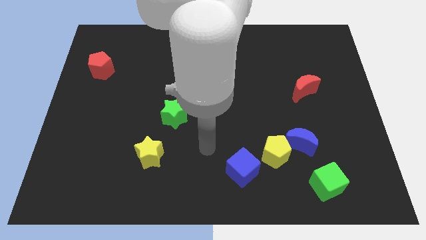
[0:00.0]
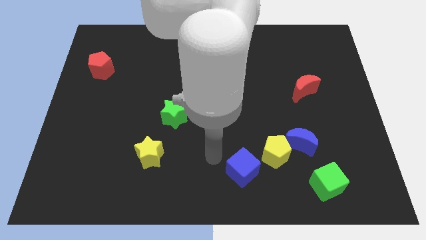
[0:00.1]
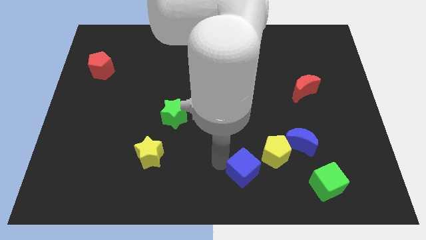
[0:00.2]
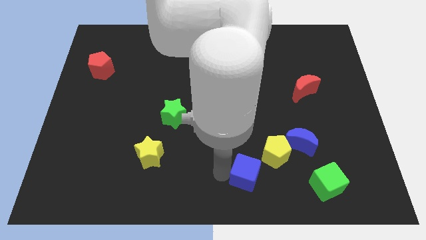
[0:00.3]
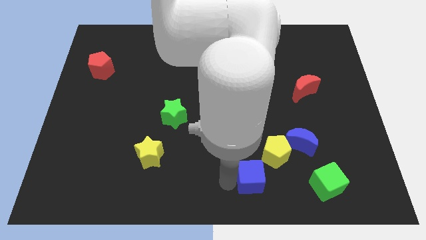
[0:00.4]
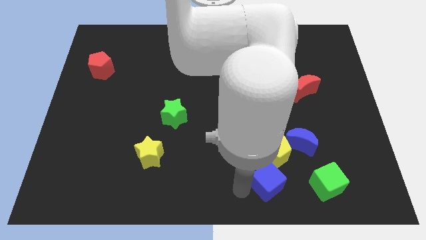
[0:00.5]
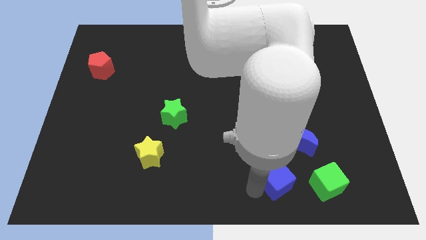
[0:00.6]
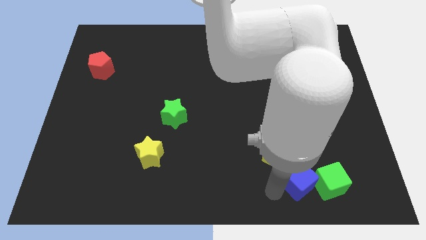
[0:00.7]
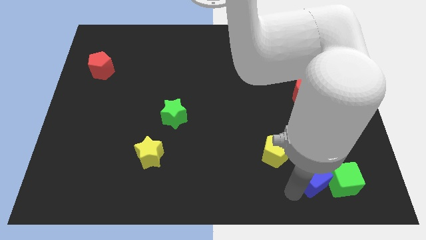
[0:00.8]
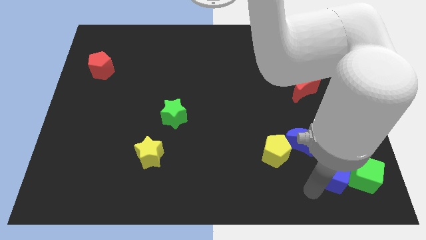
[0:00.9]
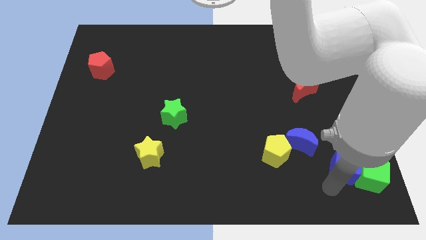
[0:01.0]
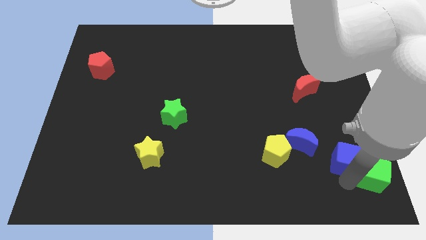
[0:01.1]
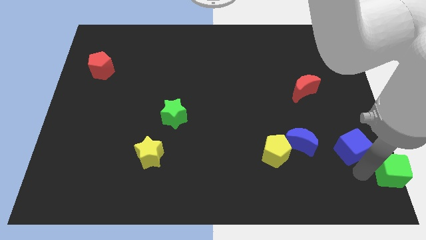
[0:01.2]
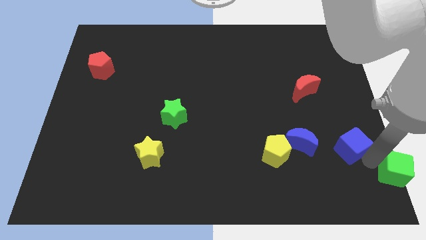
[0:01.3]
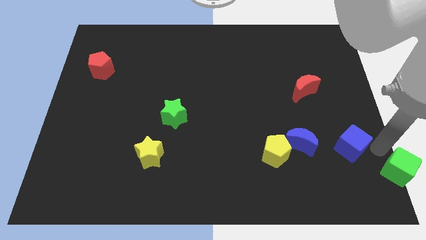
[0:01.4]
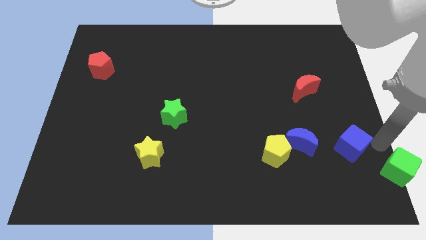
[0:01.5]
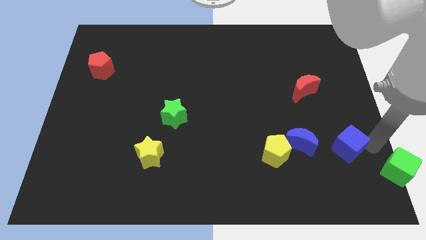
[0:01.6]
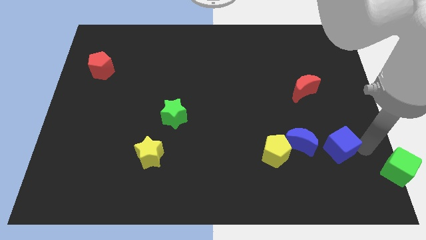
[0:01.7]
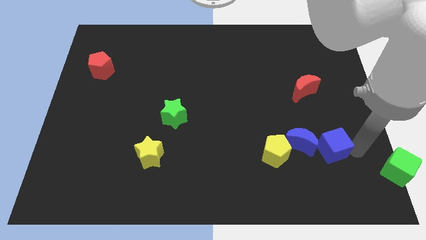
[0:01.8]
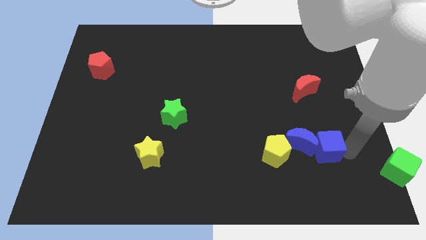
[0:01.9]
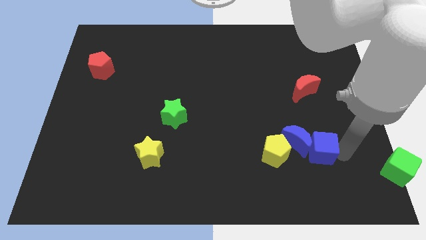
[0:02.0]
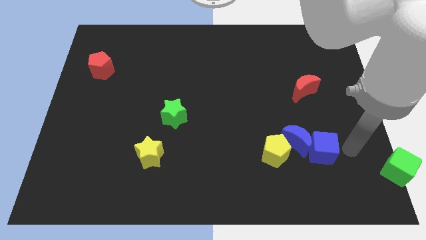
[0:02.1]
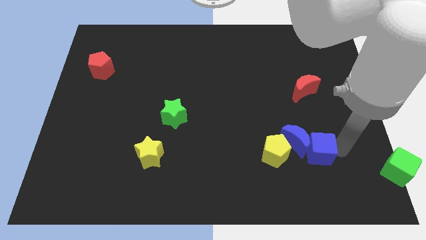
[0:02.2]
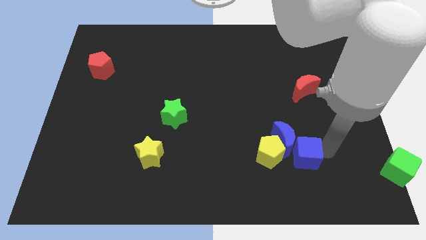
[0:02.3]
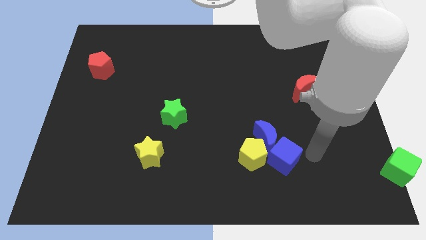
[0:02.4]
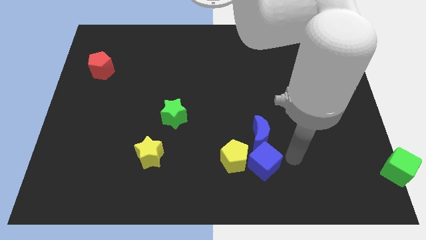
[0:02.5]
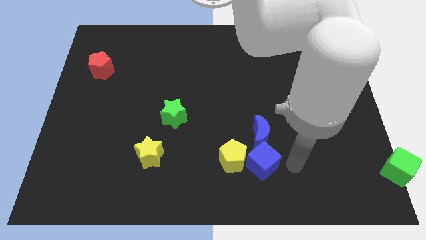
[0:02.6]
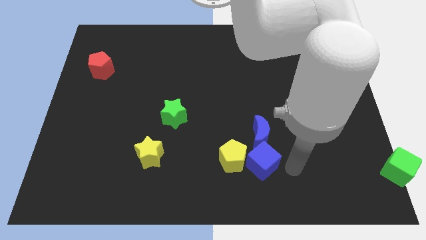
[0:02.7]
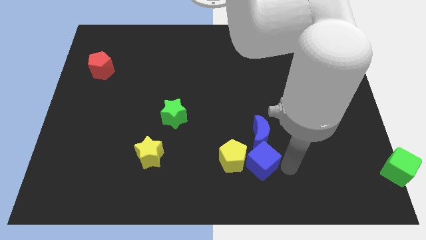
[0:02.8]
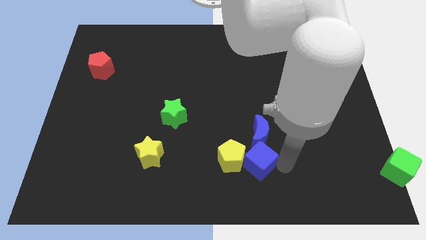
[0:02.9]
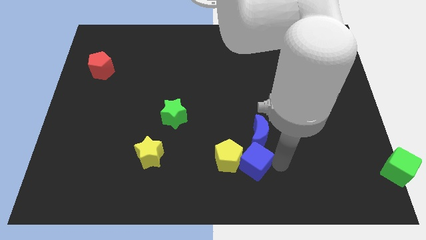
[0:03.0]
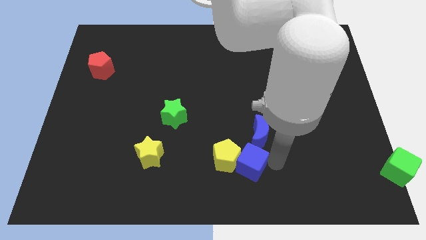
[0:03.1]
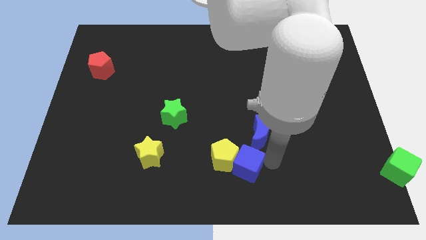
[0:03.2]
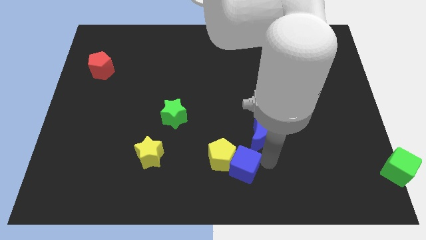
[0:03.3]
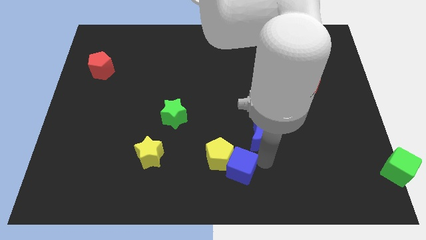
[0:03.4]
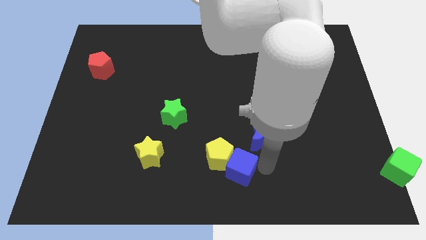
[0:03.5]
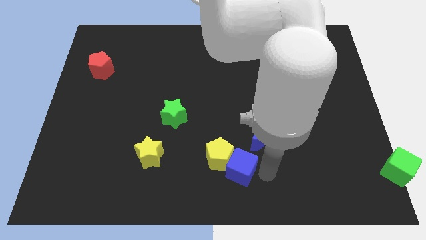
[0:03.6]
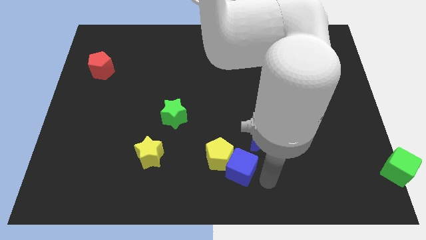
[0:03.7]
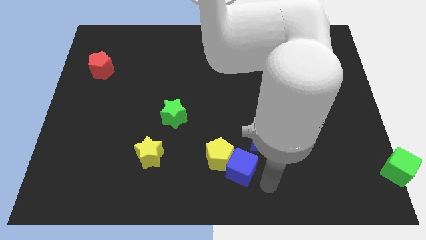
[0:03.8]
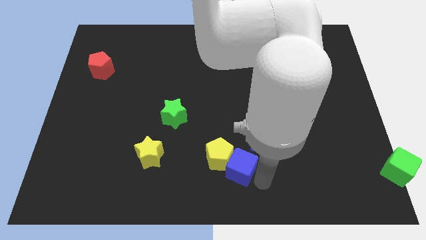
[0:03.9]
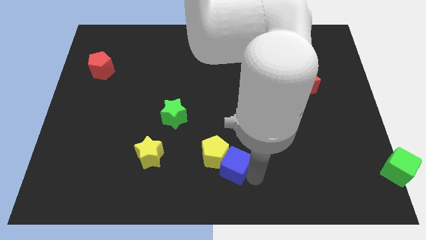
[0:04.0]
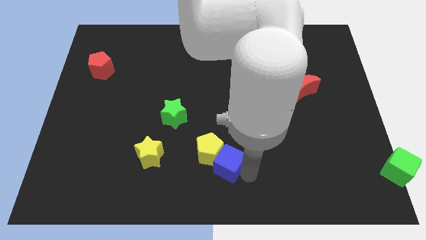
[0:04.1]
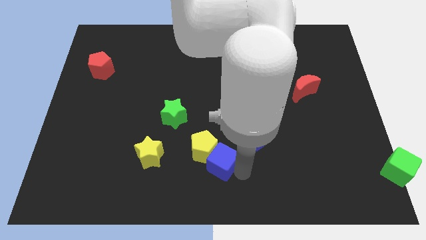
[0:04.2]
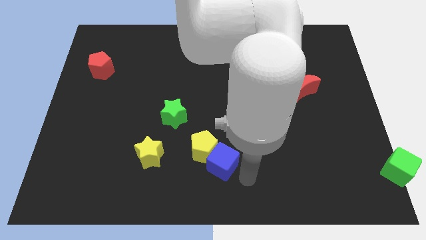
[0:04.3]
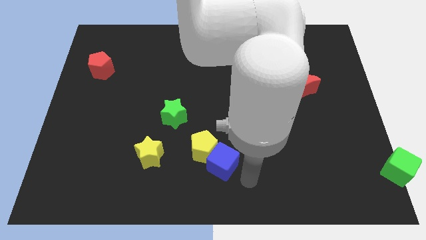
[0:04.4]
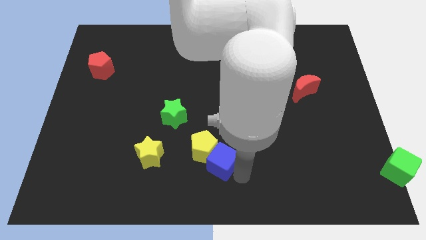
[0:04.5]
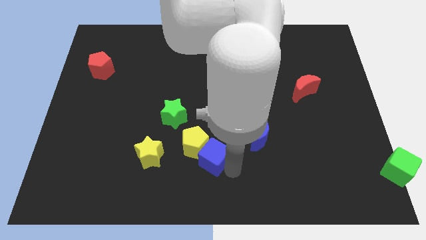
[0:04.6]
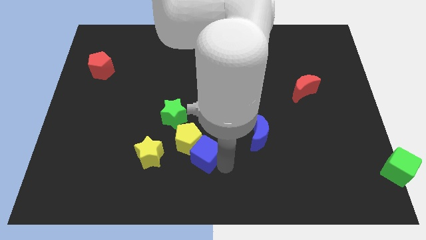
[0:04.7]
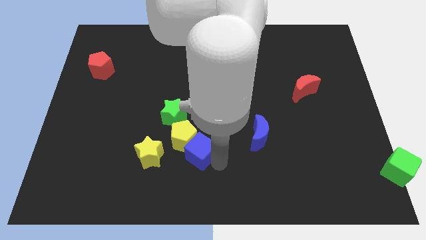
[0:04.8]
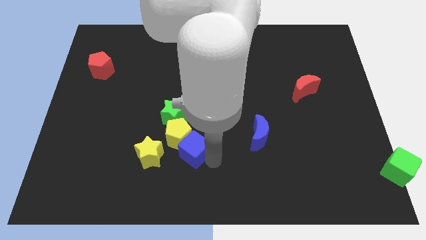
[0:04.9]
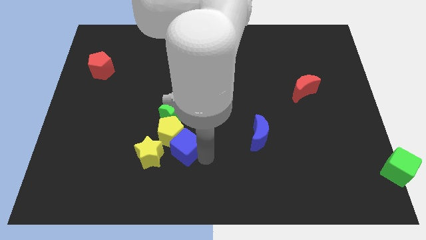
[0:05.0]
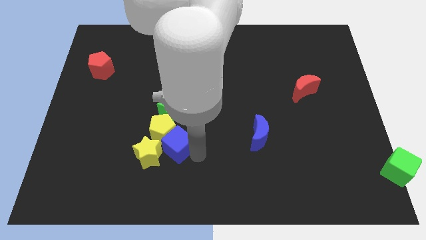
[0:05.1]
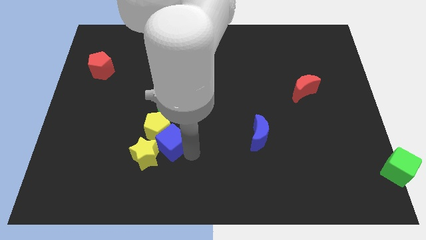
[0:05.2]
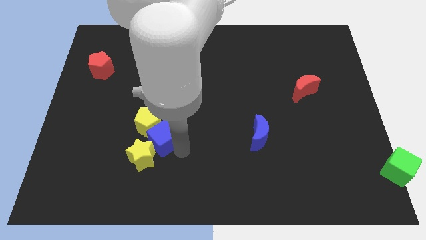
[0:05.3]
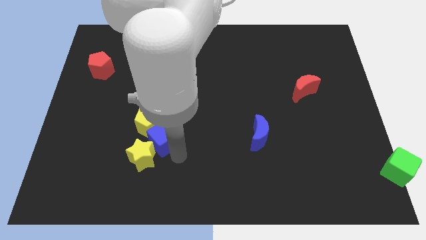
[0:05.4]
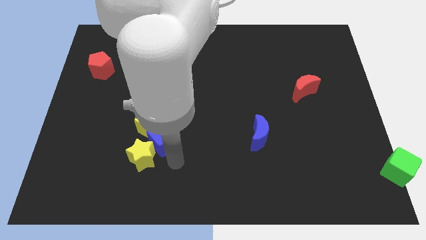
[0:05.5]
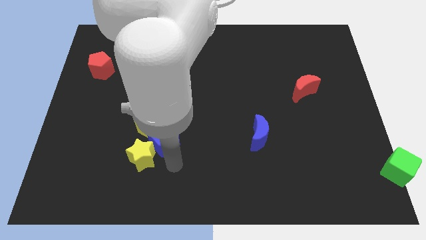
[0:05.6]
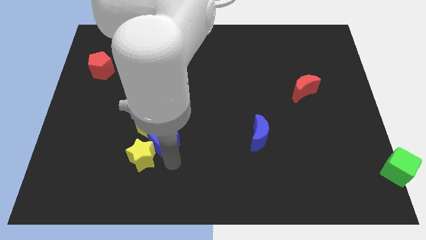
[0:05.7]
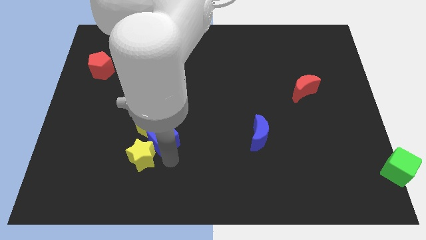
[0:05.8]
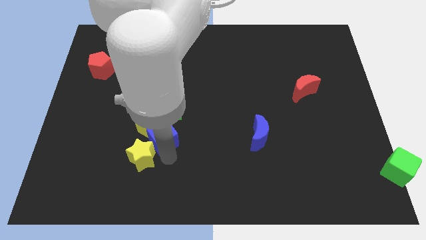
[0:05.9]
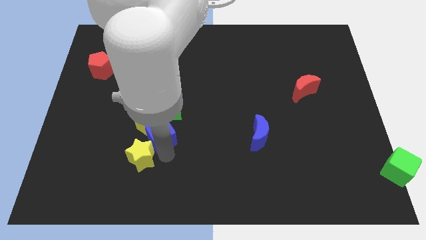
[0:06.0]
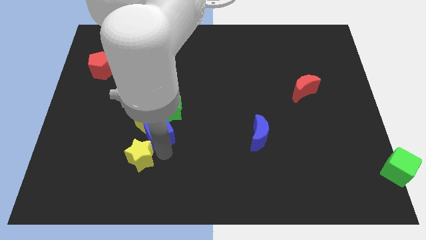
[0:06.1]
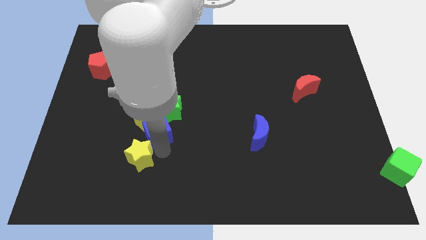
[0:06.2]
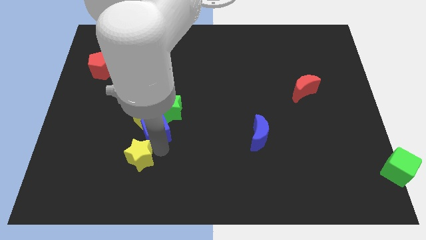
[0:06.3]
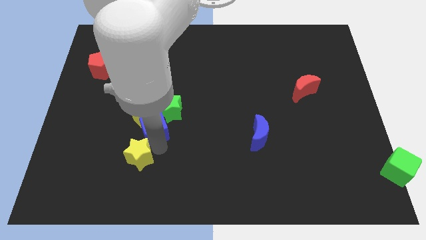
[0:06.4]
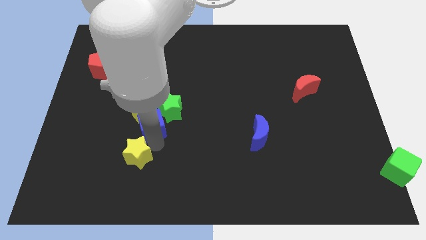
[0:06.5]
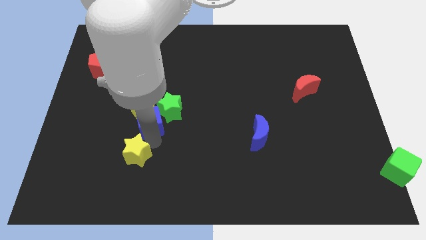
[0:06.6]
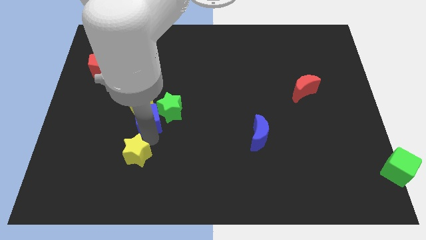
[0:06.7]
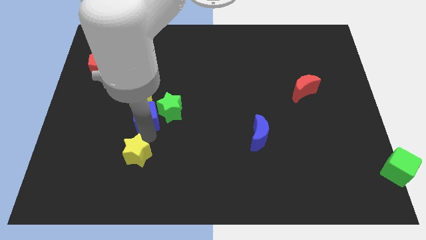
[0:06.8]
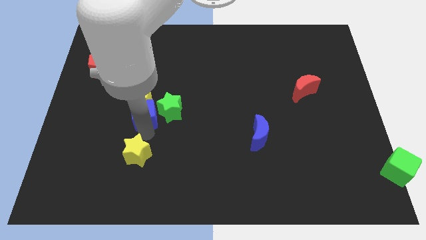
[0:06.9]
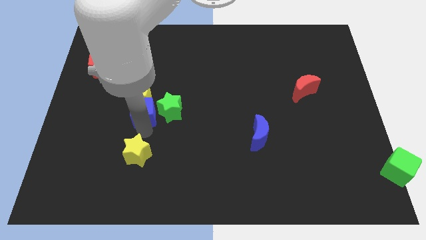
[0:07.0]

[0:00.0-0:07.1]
slide the blue cube to the top left of the green star

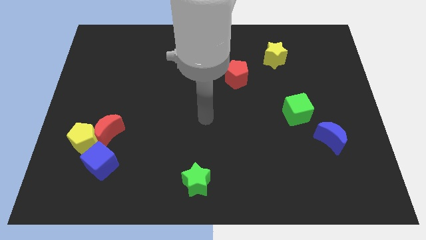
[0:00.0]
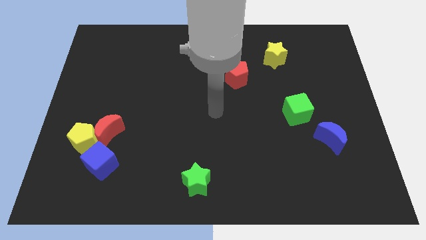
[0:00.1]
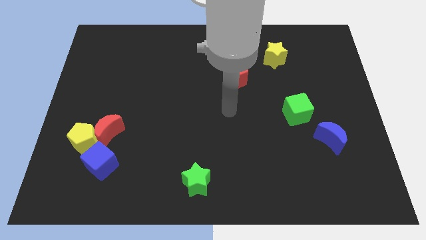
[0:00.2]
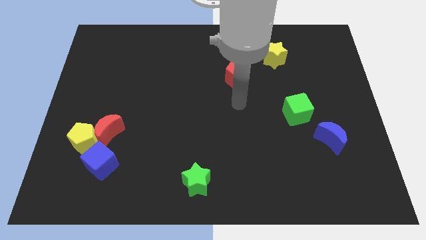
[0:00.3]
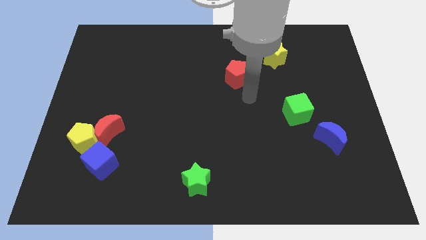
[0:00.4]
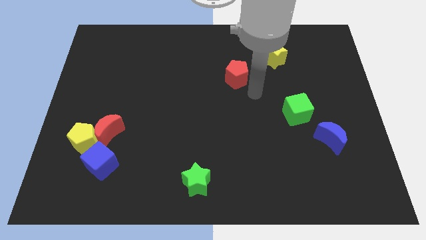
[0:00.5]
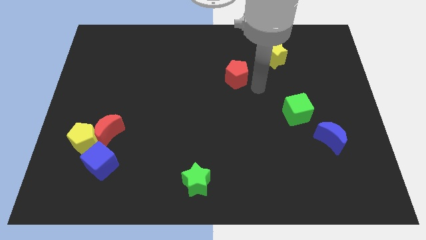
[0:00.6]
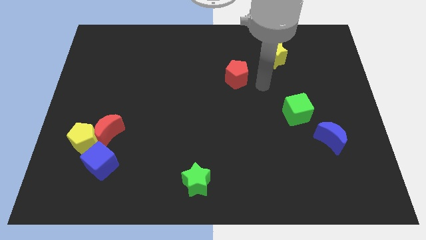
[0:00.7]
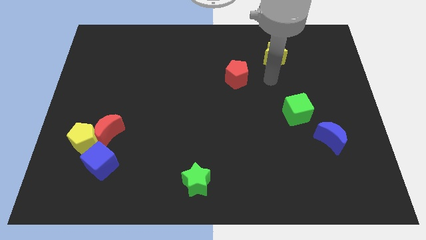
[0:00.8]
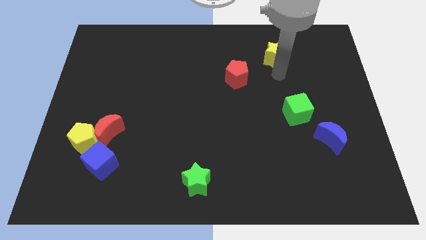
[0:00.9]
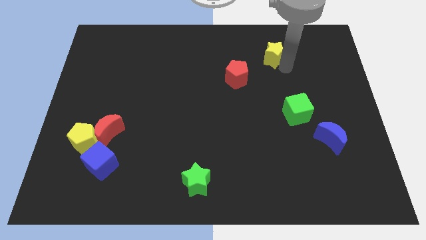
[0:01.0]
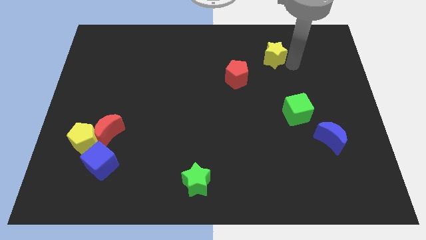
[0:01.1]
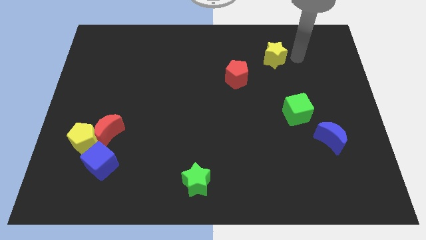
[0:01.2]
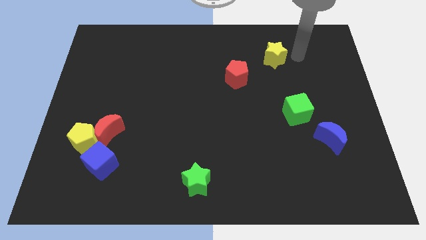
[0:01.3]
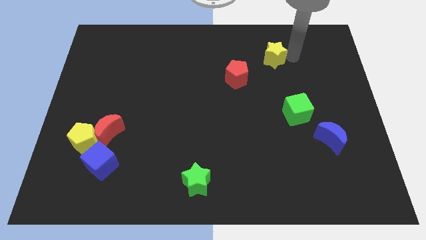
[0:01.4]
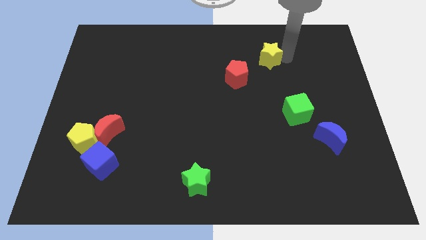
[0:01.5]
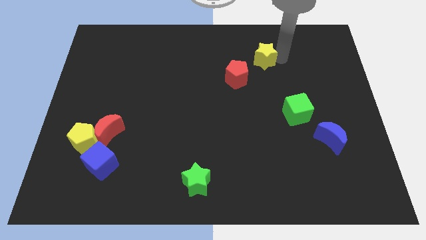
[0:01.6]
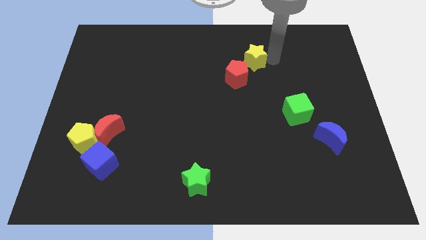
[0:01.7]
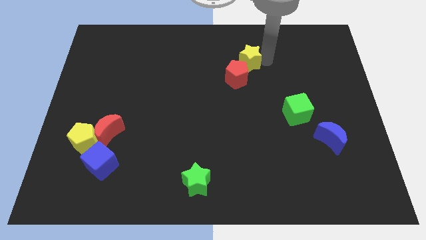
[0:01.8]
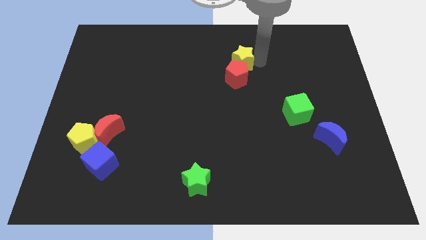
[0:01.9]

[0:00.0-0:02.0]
move the yellow star diagonally up and to the left of the red pentagon
